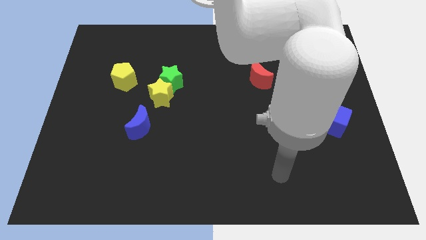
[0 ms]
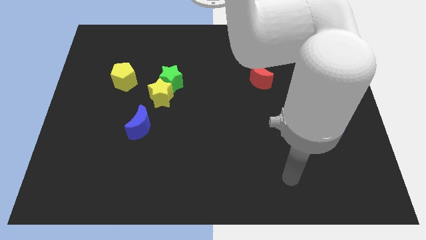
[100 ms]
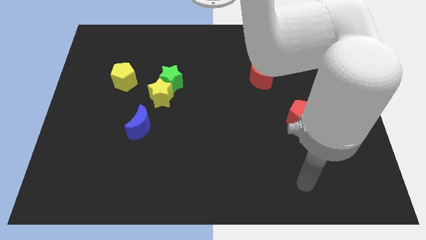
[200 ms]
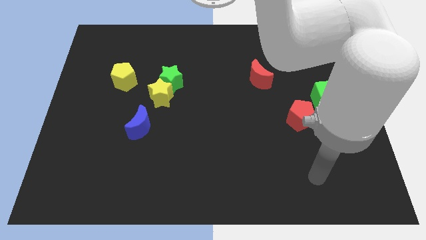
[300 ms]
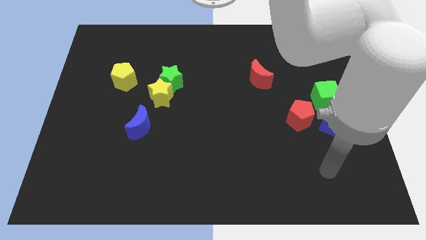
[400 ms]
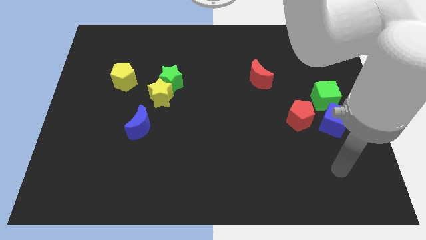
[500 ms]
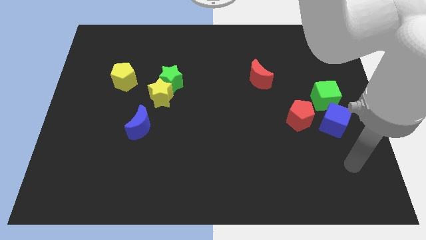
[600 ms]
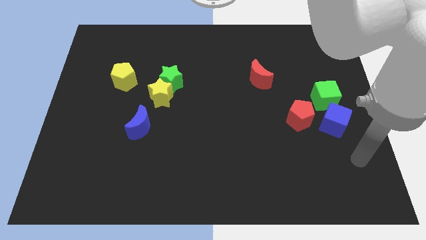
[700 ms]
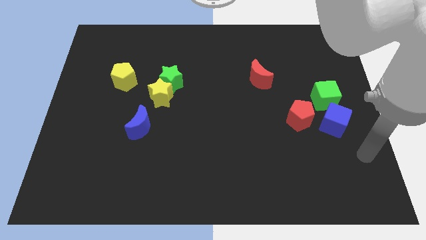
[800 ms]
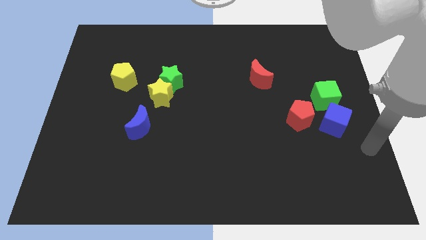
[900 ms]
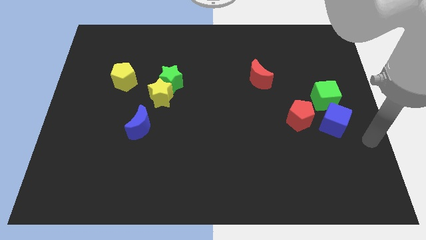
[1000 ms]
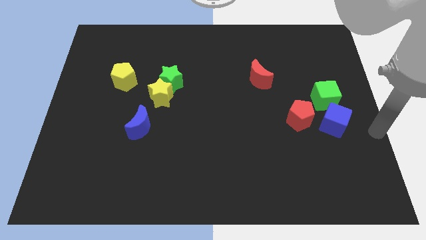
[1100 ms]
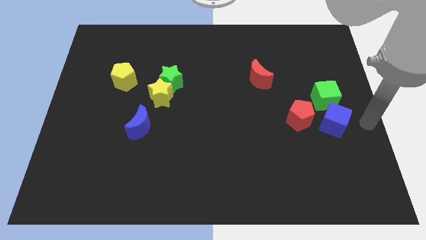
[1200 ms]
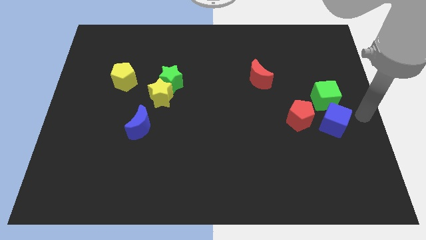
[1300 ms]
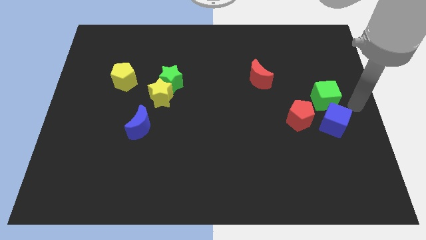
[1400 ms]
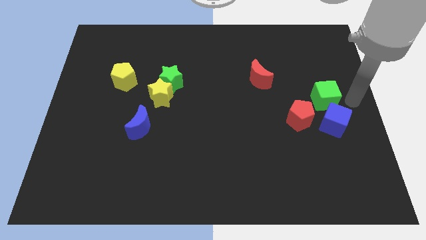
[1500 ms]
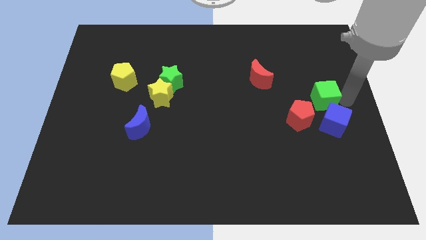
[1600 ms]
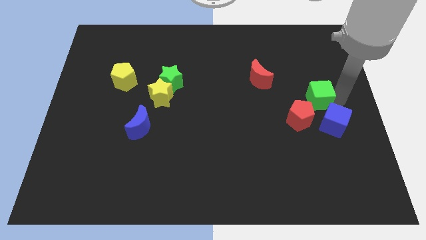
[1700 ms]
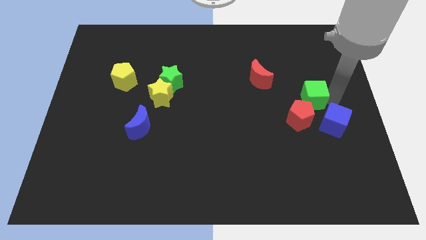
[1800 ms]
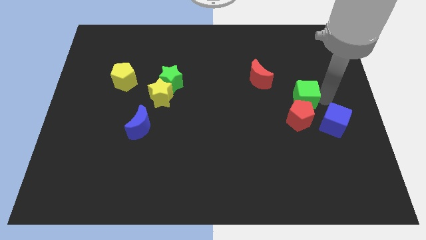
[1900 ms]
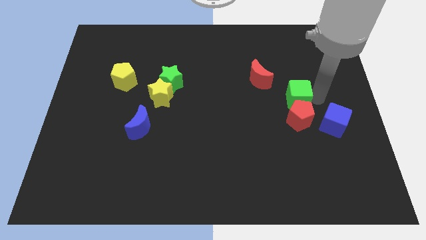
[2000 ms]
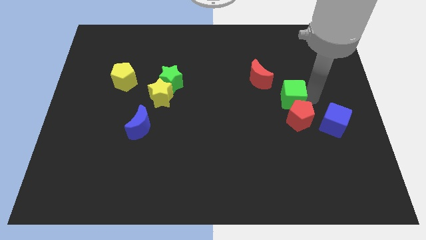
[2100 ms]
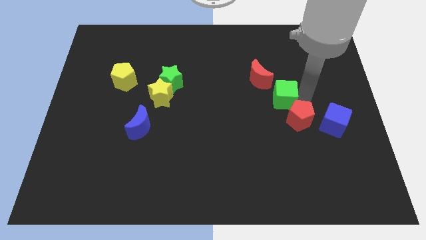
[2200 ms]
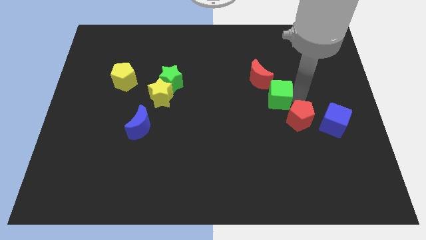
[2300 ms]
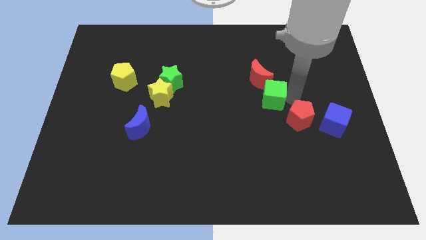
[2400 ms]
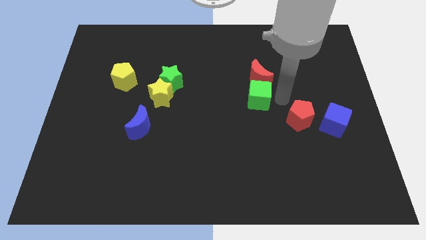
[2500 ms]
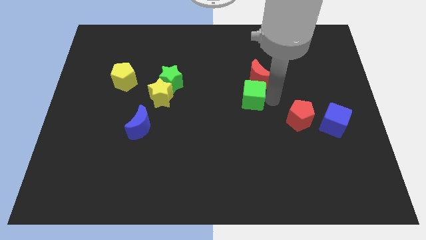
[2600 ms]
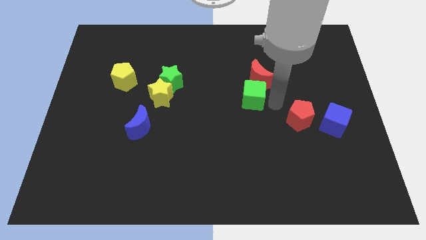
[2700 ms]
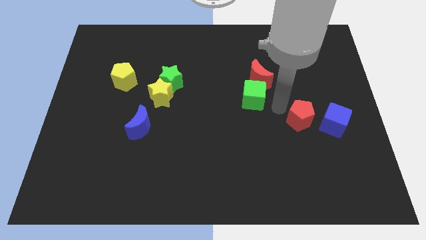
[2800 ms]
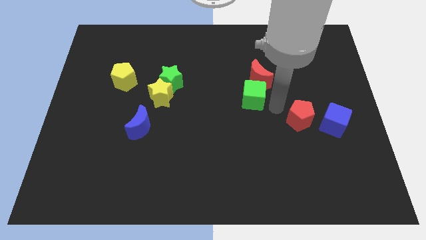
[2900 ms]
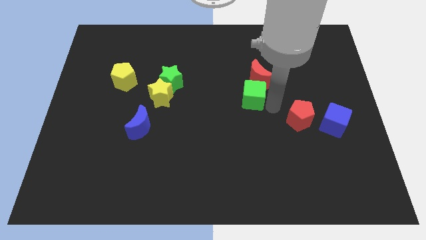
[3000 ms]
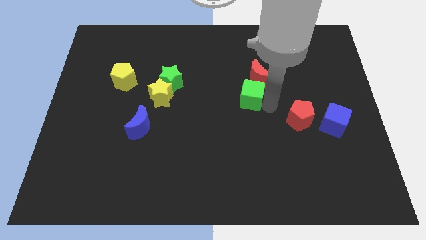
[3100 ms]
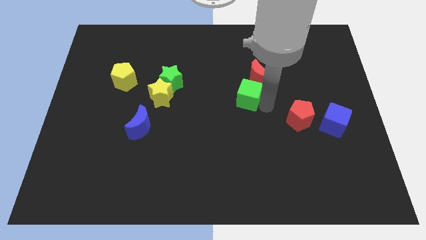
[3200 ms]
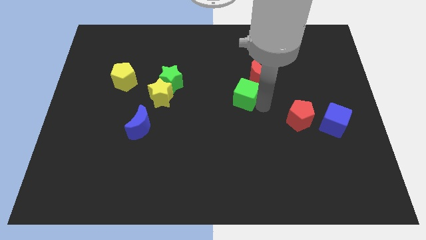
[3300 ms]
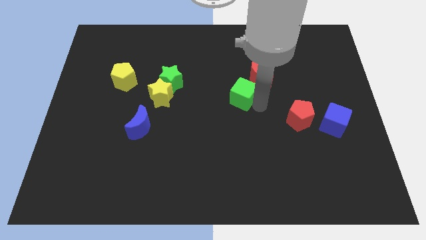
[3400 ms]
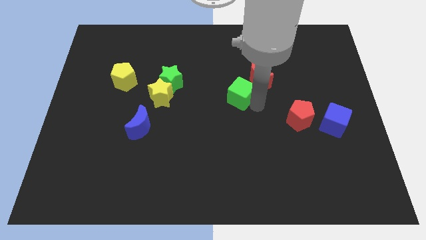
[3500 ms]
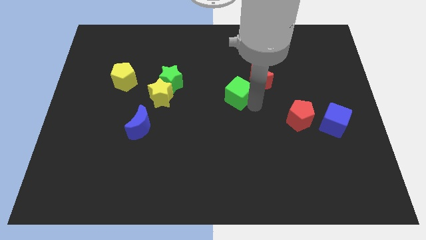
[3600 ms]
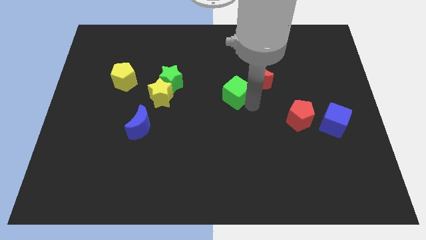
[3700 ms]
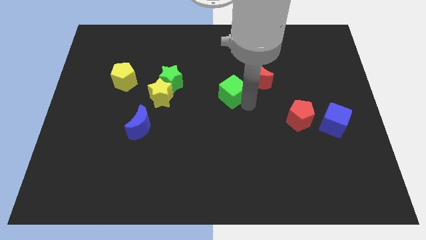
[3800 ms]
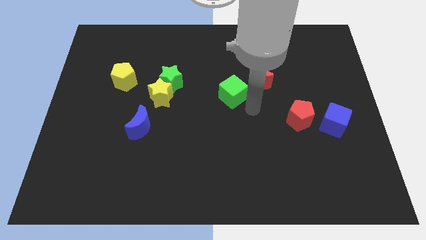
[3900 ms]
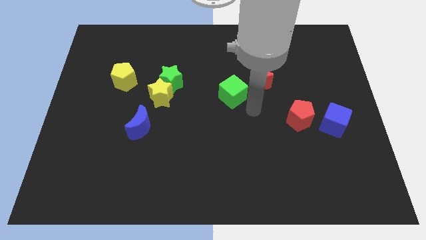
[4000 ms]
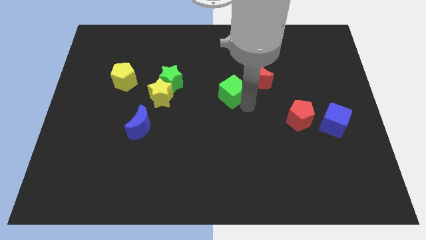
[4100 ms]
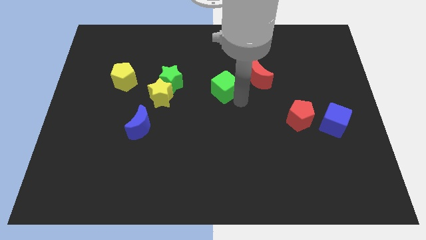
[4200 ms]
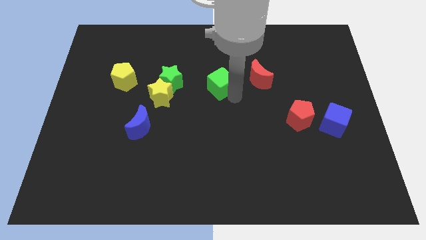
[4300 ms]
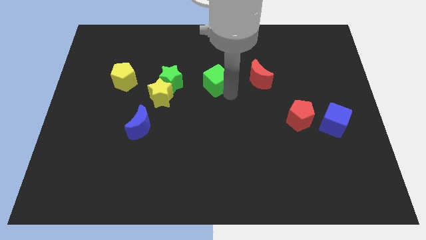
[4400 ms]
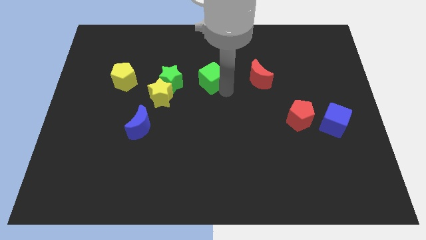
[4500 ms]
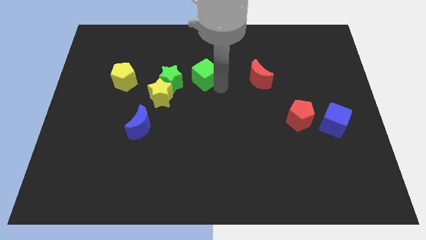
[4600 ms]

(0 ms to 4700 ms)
put the green cube to the top right side of the green star

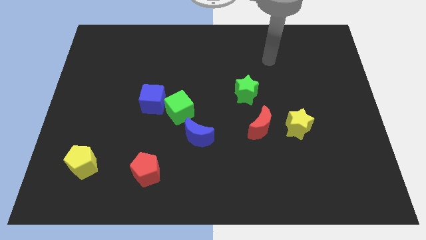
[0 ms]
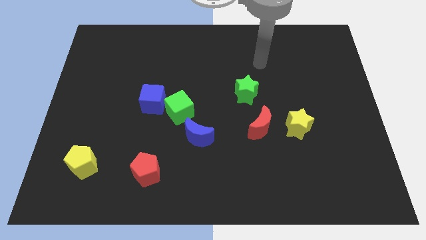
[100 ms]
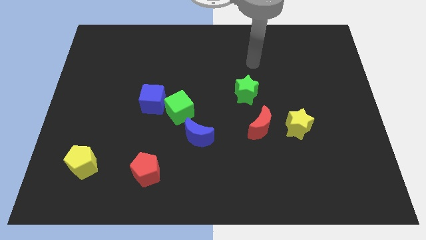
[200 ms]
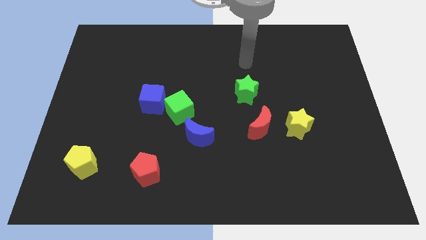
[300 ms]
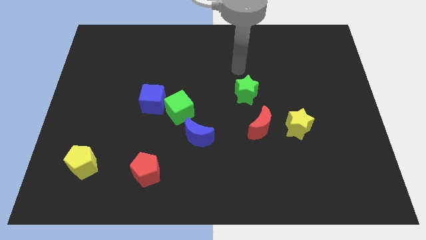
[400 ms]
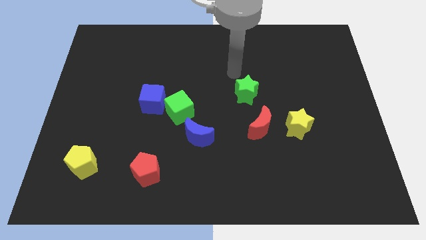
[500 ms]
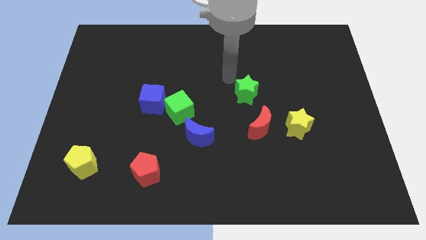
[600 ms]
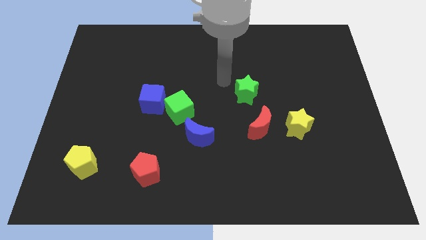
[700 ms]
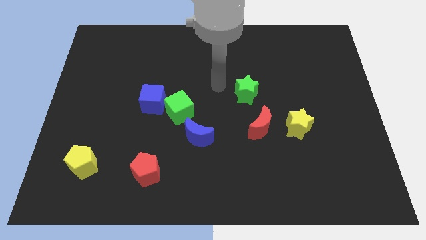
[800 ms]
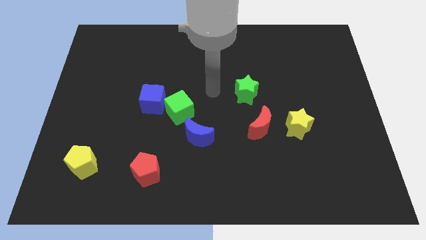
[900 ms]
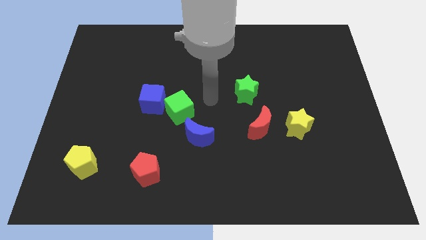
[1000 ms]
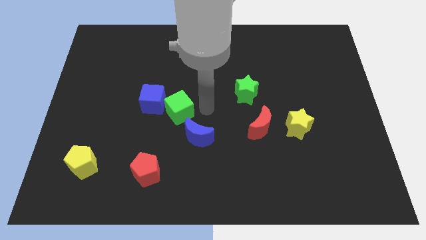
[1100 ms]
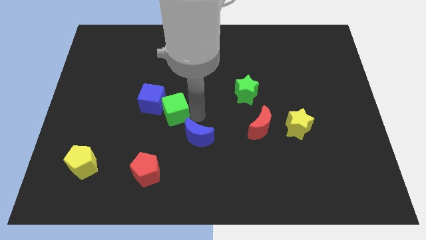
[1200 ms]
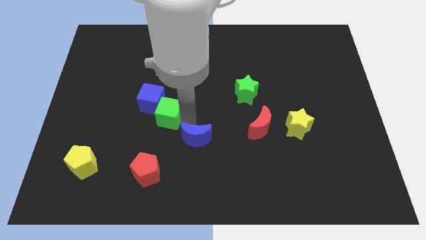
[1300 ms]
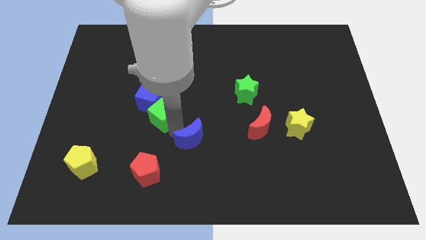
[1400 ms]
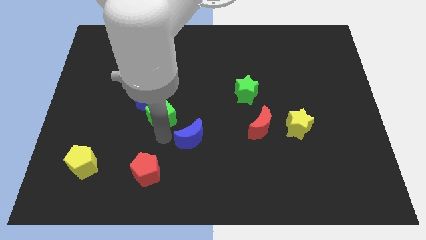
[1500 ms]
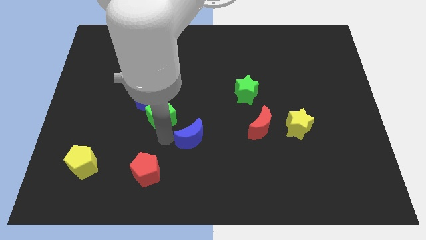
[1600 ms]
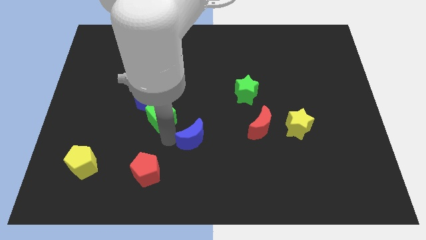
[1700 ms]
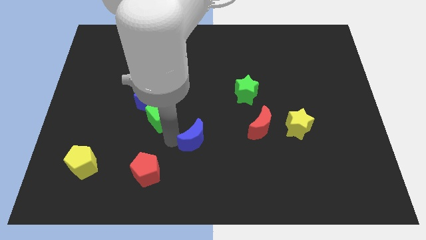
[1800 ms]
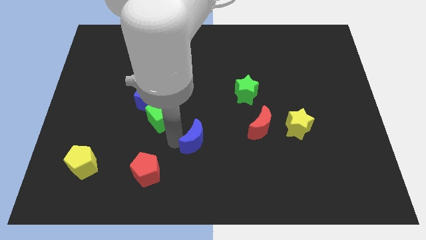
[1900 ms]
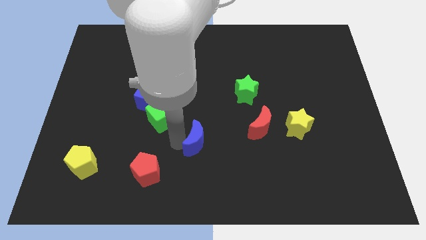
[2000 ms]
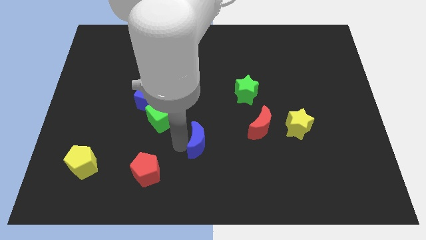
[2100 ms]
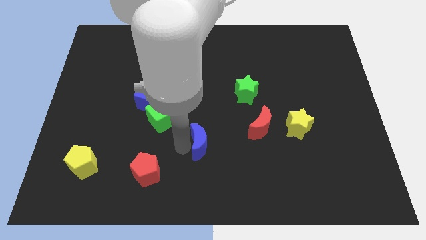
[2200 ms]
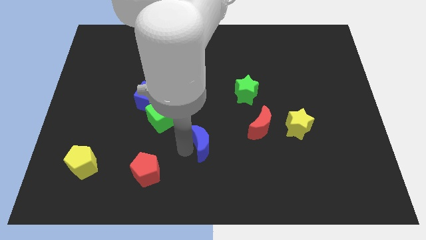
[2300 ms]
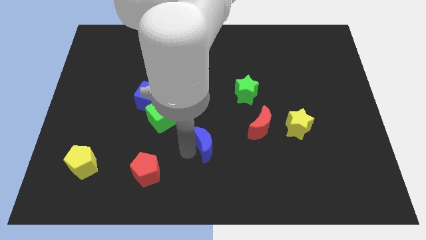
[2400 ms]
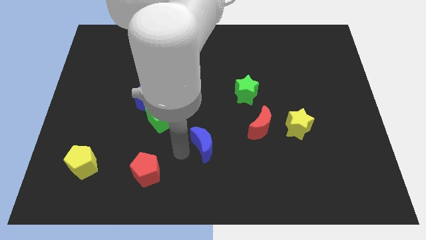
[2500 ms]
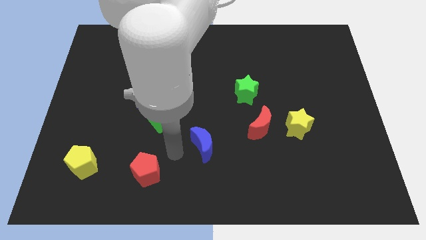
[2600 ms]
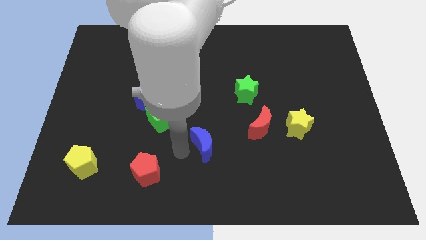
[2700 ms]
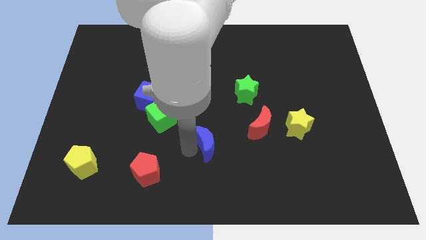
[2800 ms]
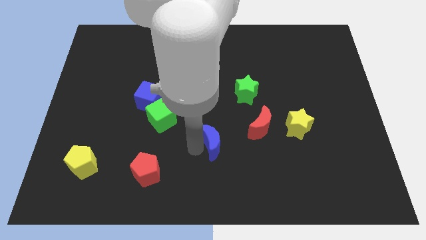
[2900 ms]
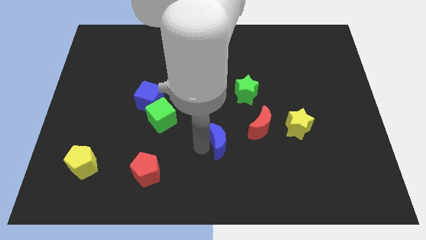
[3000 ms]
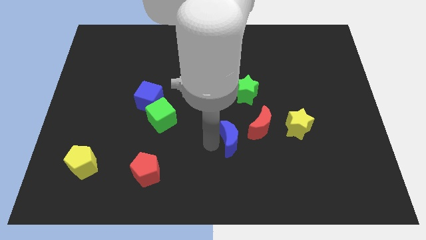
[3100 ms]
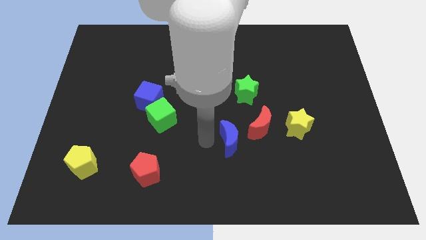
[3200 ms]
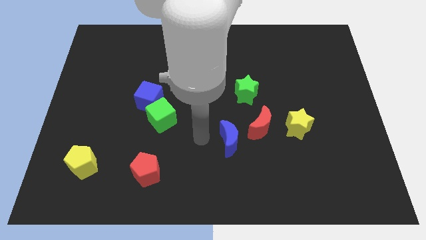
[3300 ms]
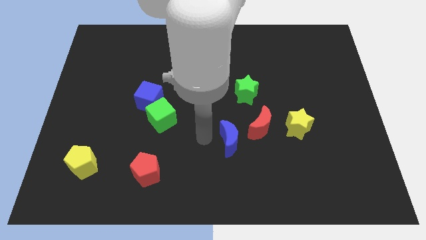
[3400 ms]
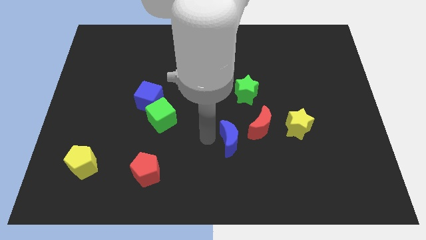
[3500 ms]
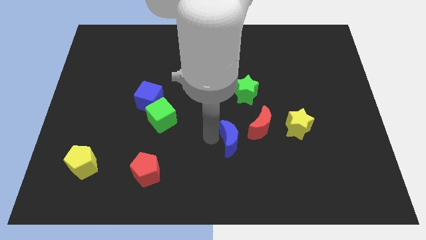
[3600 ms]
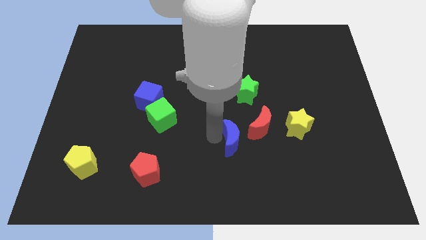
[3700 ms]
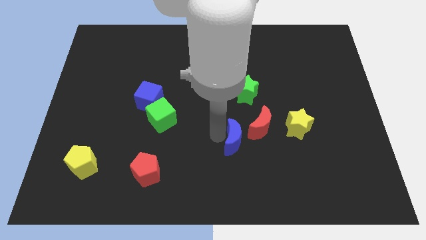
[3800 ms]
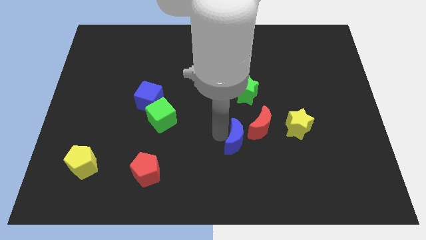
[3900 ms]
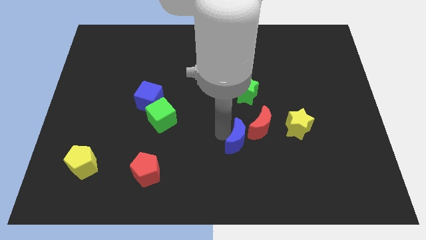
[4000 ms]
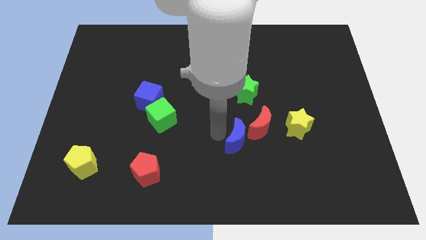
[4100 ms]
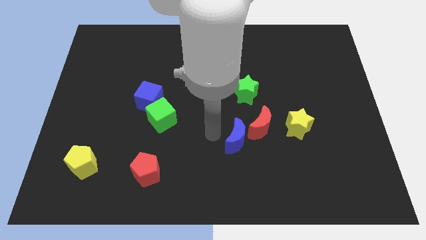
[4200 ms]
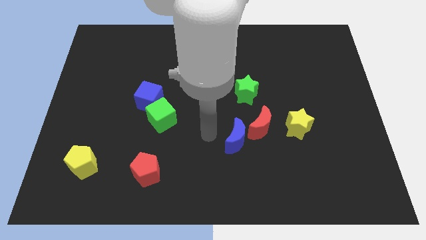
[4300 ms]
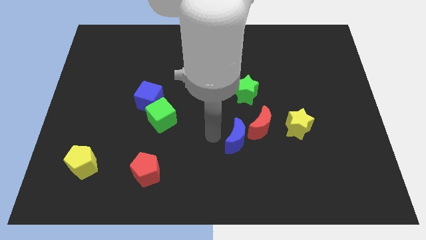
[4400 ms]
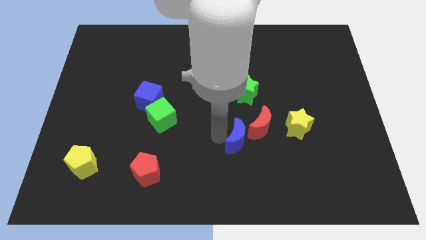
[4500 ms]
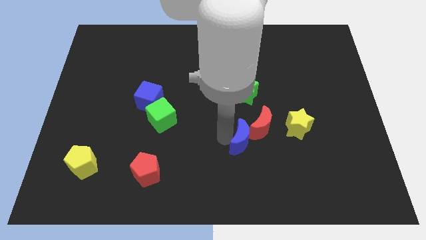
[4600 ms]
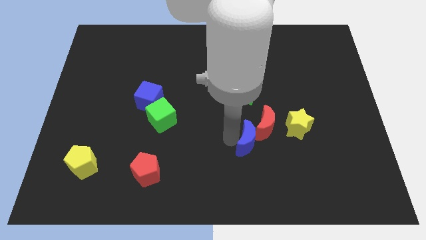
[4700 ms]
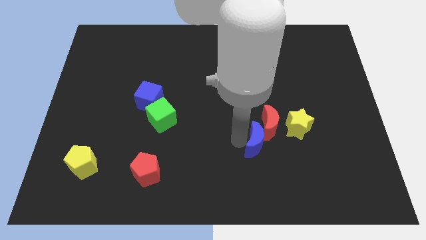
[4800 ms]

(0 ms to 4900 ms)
put the blue moon to the bottom left side of the yellow star
